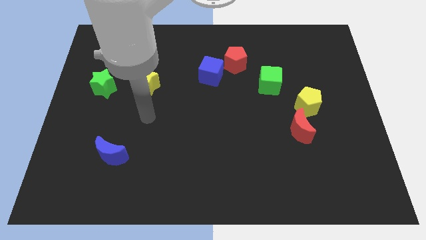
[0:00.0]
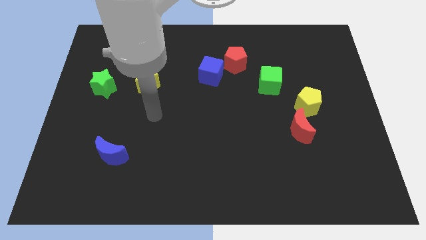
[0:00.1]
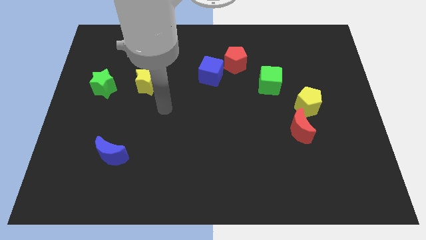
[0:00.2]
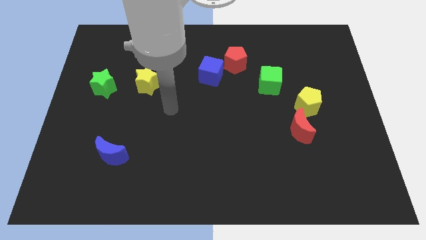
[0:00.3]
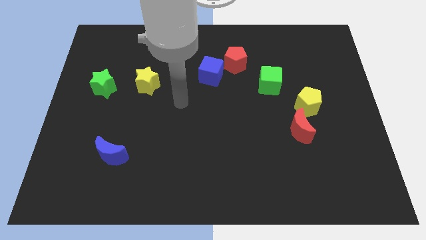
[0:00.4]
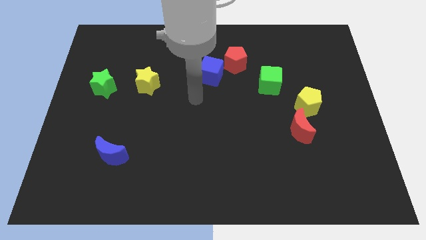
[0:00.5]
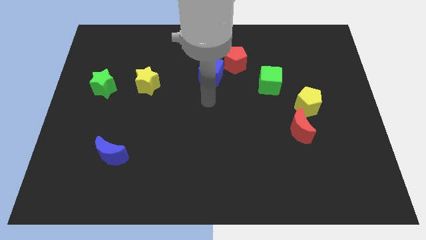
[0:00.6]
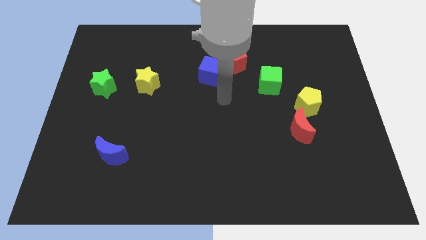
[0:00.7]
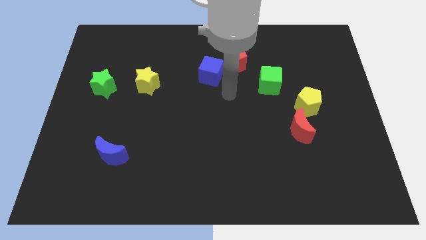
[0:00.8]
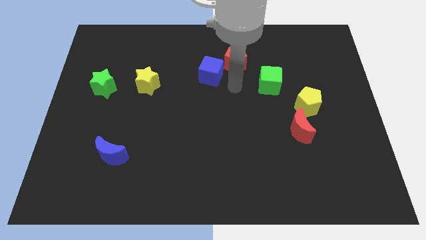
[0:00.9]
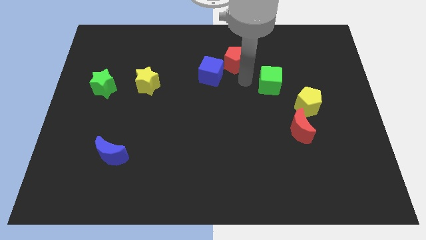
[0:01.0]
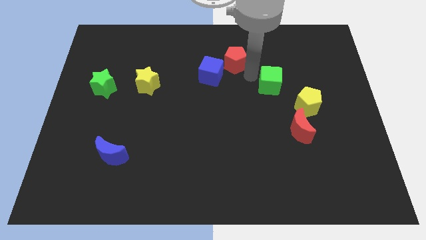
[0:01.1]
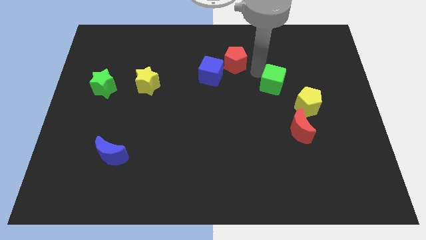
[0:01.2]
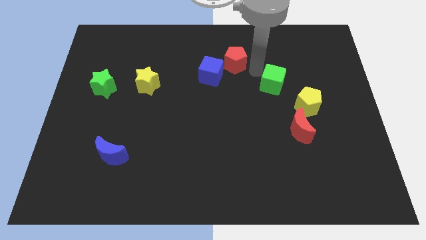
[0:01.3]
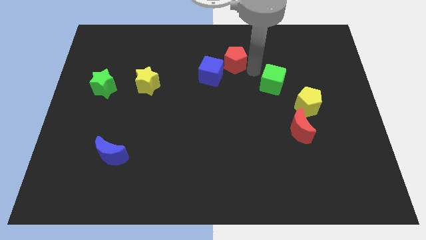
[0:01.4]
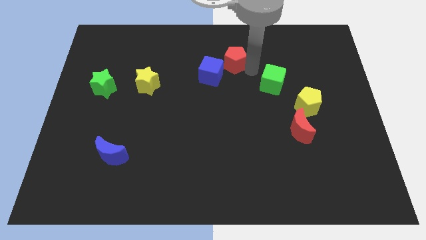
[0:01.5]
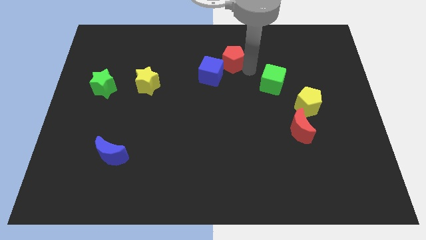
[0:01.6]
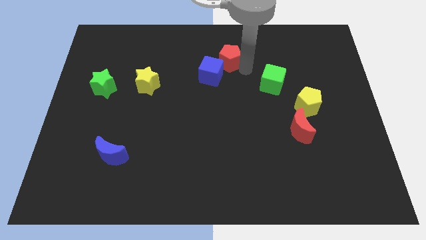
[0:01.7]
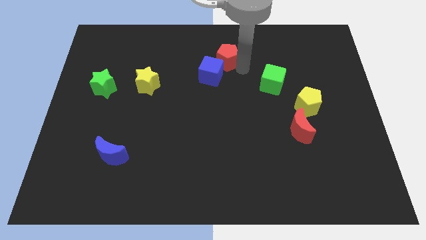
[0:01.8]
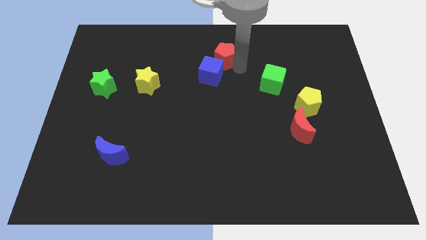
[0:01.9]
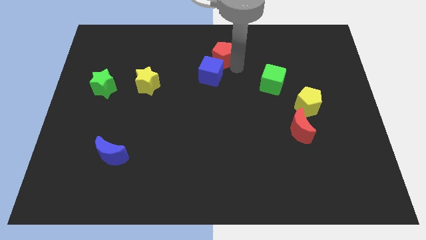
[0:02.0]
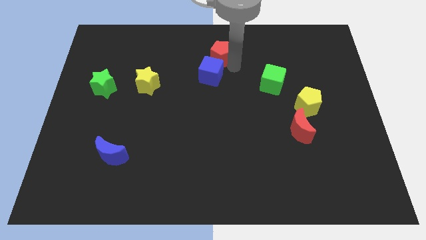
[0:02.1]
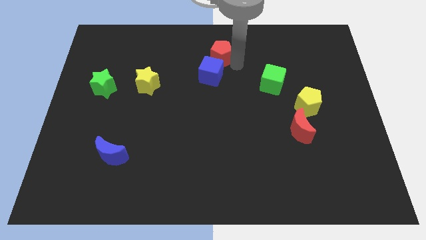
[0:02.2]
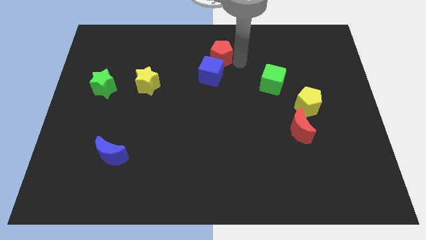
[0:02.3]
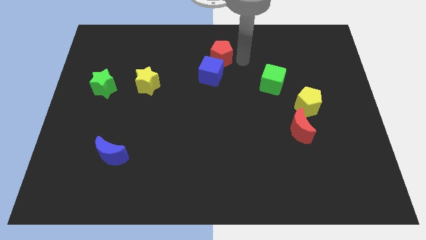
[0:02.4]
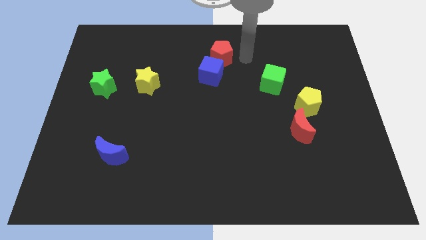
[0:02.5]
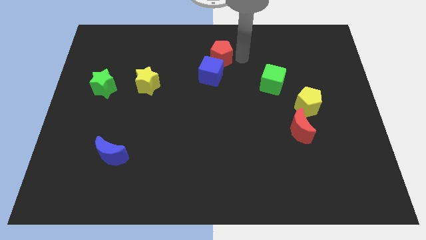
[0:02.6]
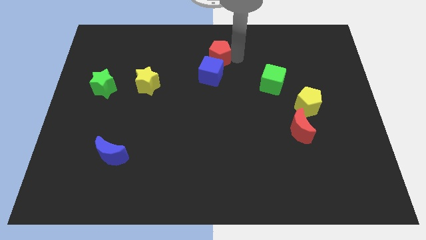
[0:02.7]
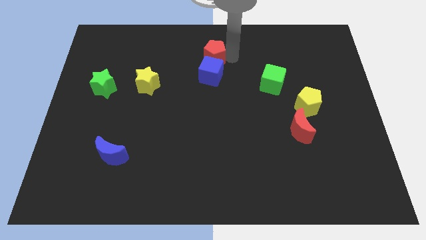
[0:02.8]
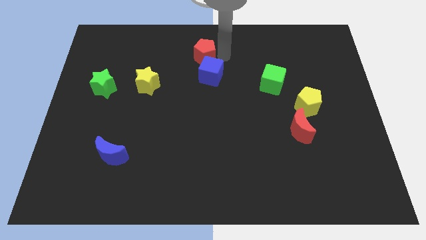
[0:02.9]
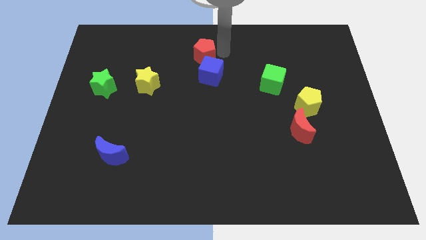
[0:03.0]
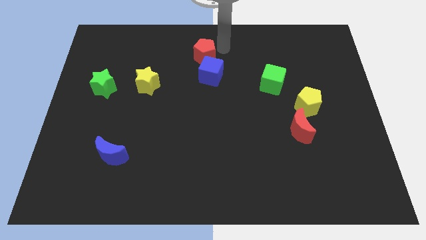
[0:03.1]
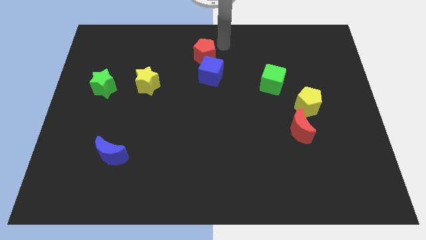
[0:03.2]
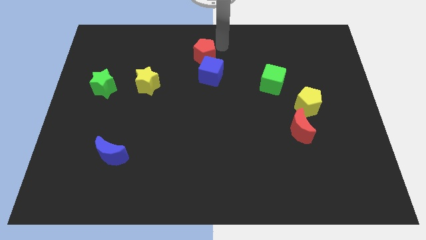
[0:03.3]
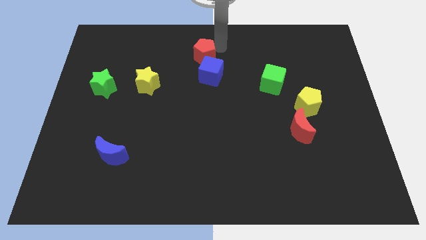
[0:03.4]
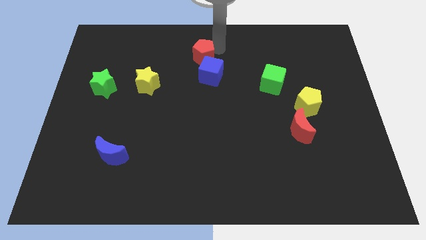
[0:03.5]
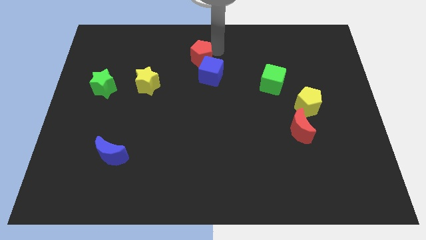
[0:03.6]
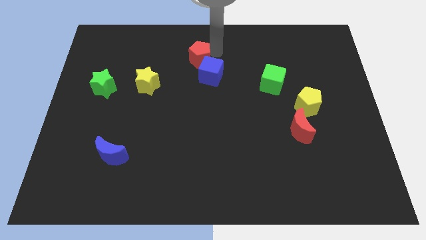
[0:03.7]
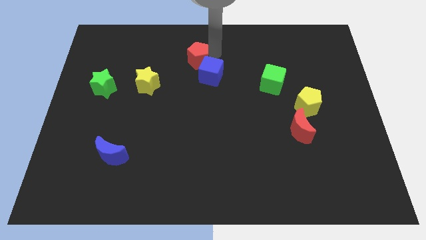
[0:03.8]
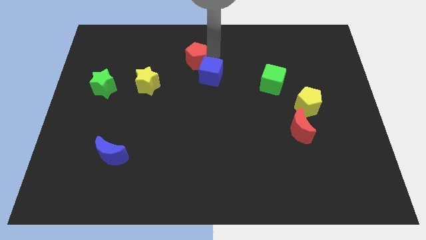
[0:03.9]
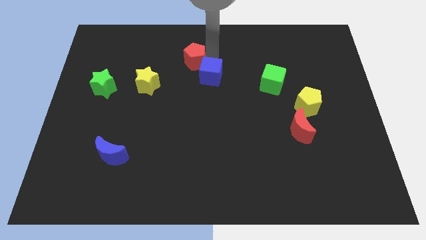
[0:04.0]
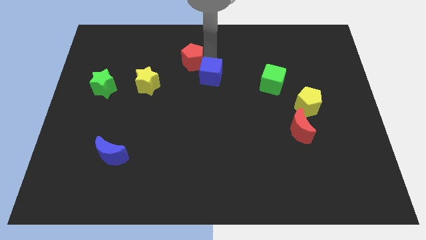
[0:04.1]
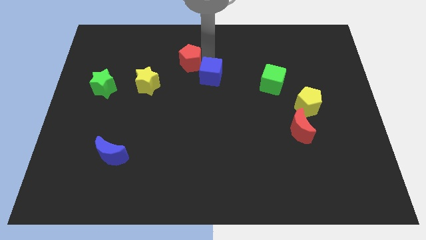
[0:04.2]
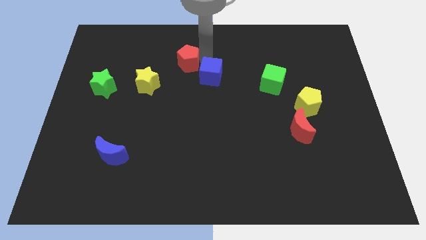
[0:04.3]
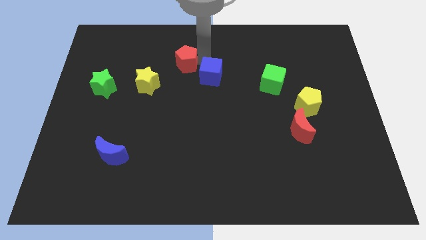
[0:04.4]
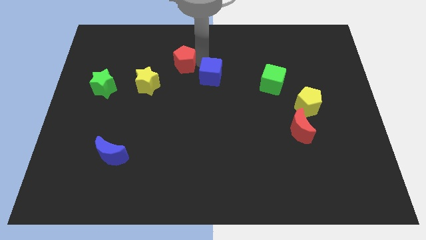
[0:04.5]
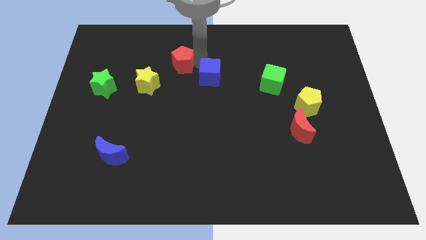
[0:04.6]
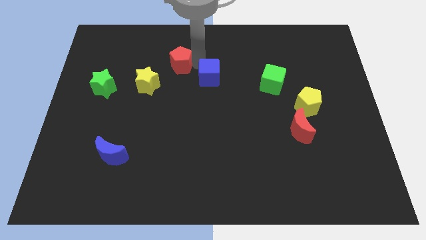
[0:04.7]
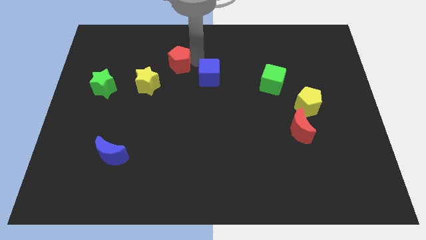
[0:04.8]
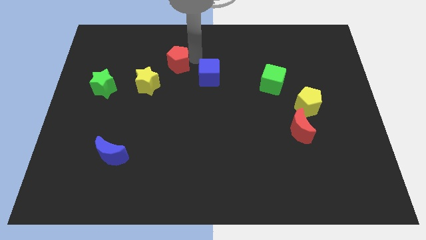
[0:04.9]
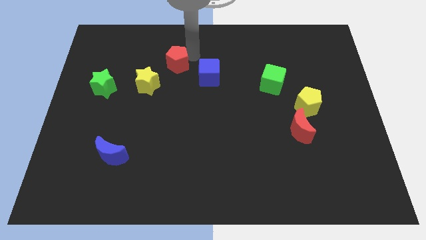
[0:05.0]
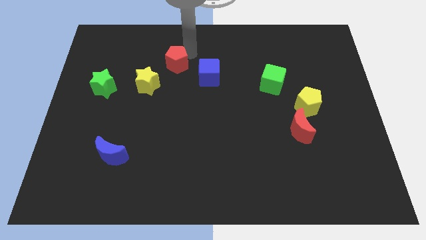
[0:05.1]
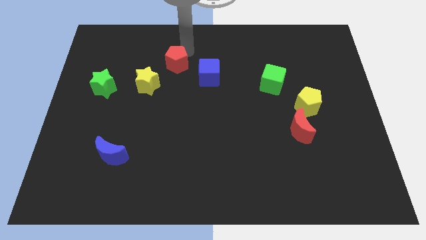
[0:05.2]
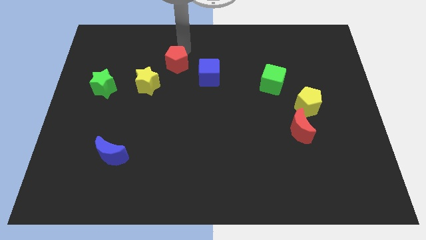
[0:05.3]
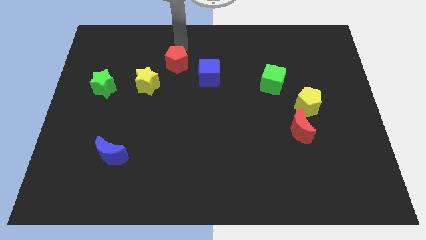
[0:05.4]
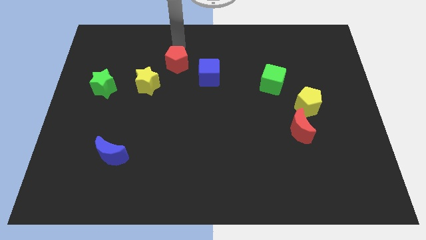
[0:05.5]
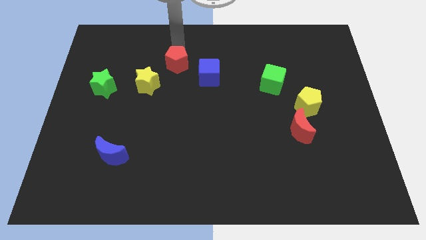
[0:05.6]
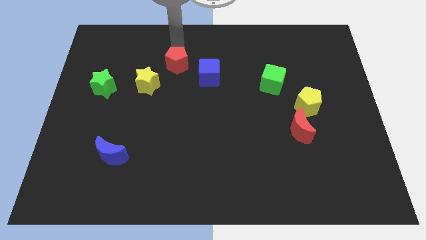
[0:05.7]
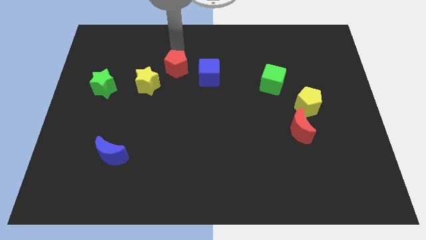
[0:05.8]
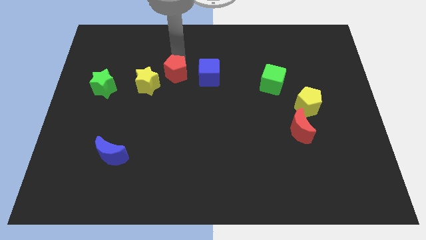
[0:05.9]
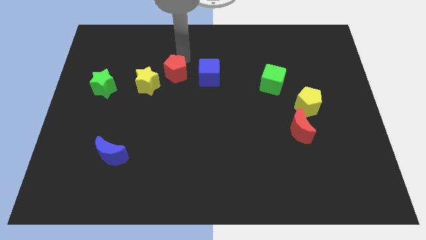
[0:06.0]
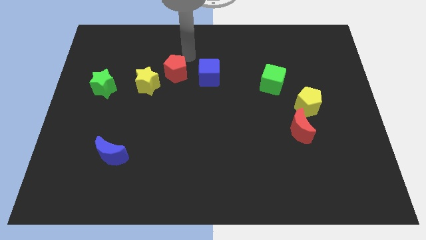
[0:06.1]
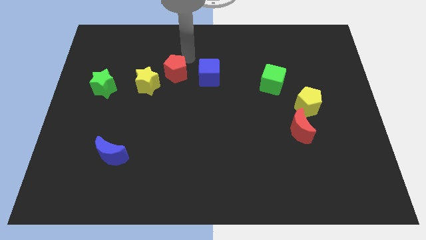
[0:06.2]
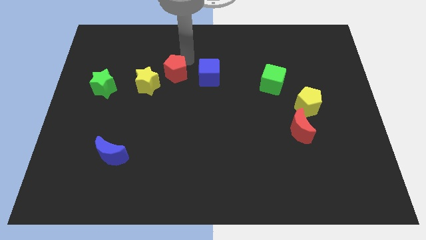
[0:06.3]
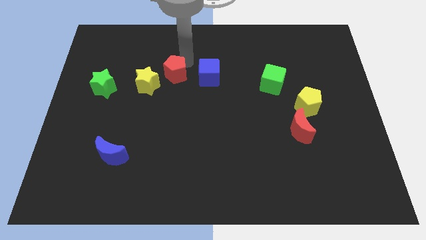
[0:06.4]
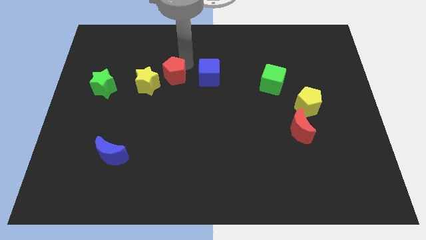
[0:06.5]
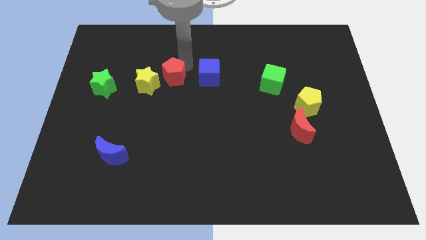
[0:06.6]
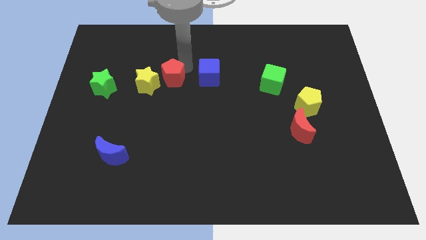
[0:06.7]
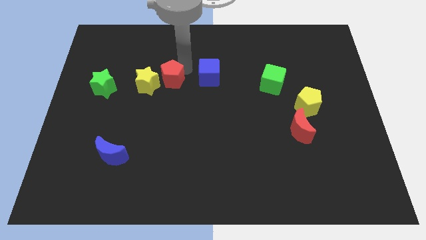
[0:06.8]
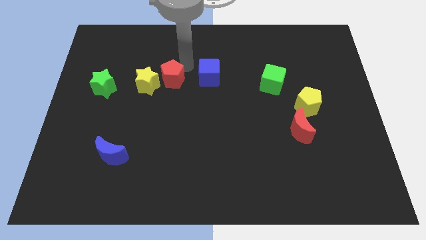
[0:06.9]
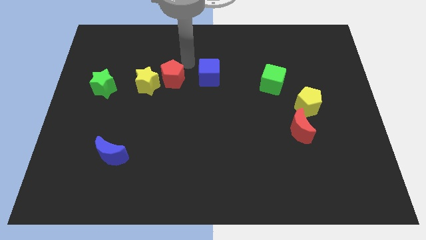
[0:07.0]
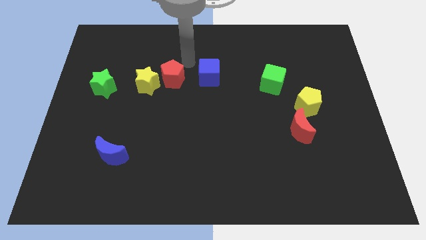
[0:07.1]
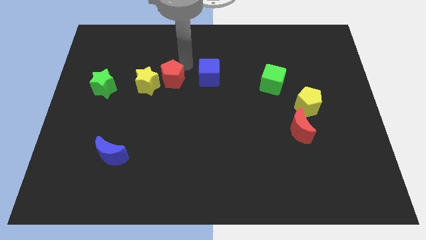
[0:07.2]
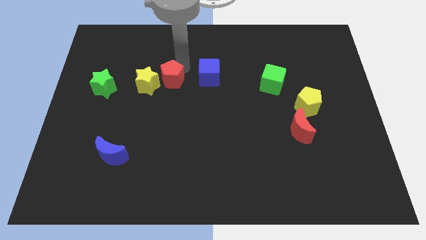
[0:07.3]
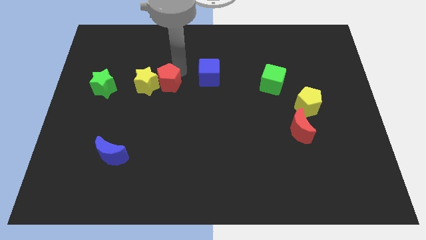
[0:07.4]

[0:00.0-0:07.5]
put the red pentagon to the right side of the green star
